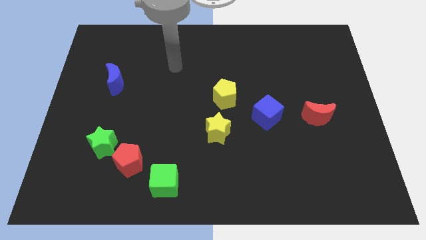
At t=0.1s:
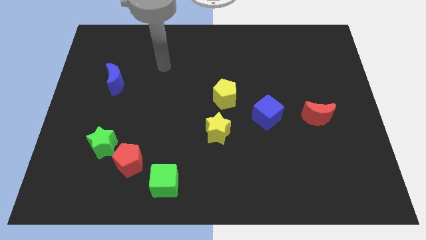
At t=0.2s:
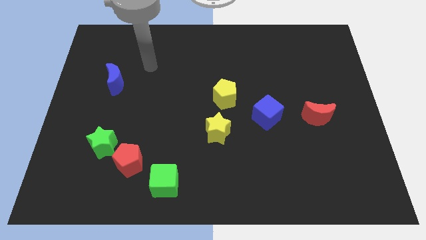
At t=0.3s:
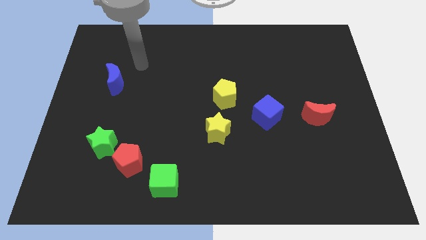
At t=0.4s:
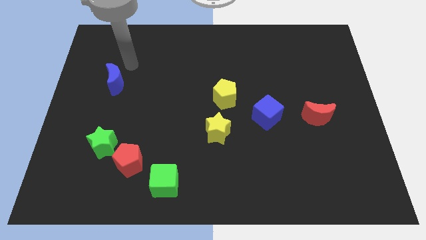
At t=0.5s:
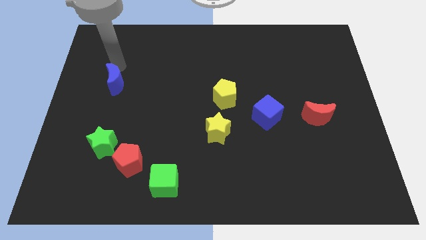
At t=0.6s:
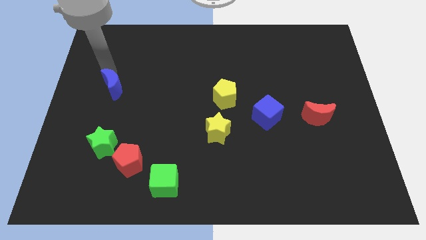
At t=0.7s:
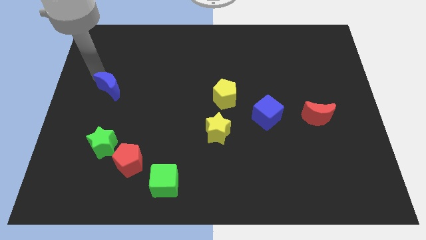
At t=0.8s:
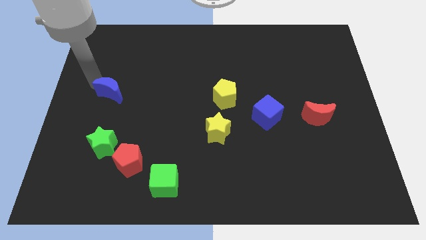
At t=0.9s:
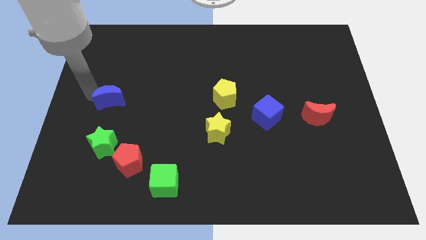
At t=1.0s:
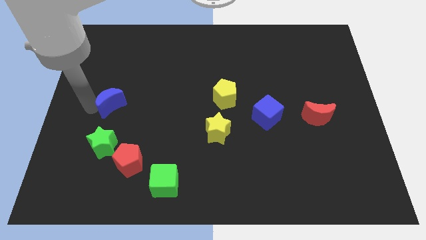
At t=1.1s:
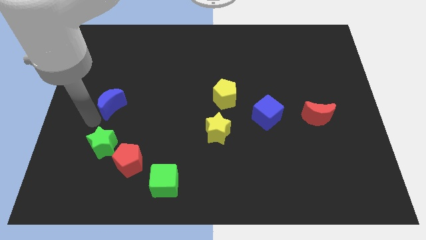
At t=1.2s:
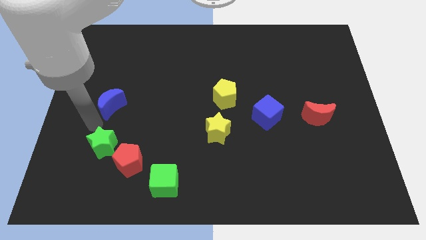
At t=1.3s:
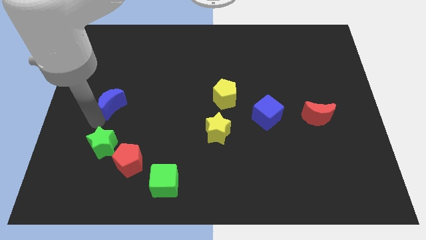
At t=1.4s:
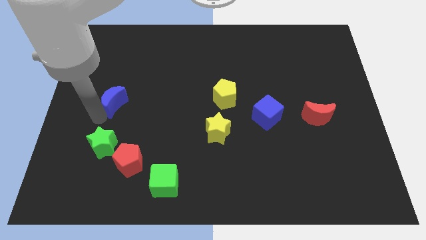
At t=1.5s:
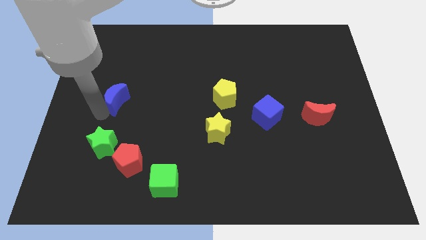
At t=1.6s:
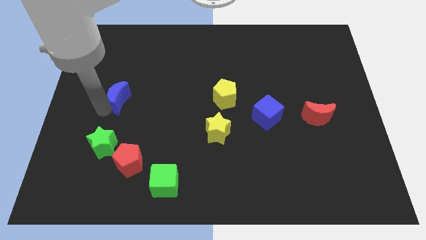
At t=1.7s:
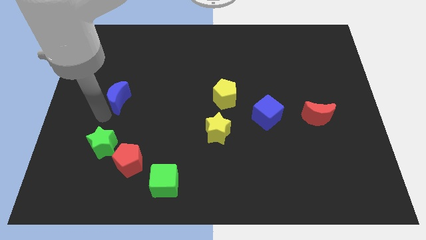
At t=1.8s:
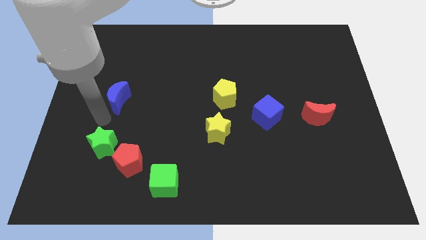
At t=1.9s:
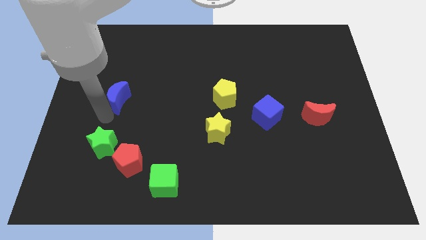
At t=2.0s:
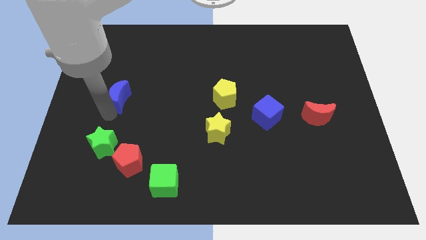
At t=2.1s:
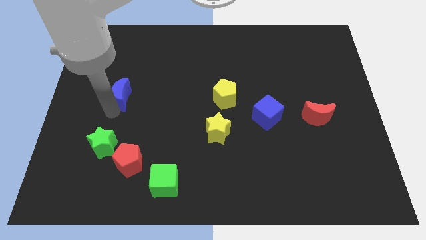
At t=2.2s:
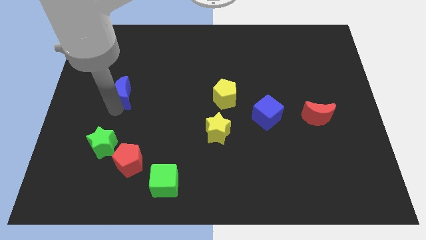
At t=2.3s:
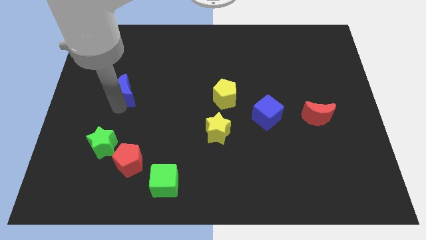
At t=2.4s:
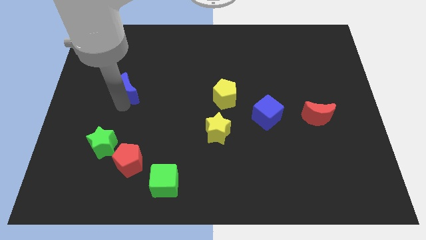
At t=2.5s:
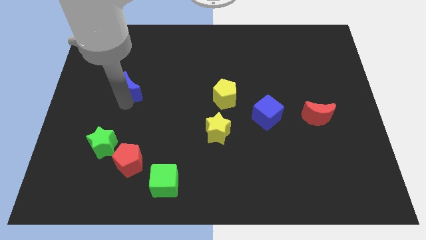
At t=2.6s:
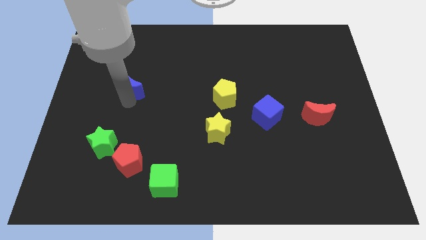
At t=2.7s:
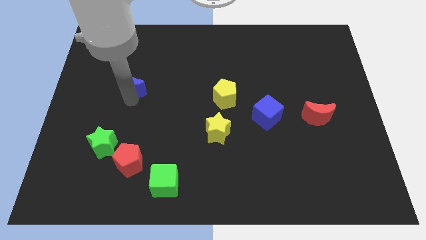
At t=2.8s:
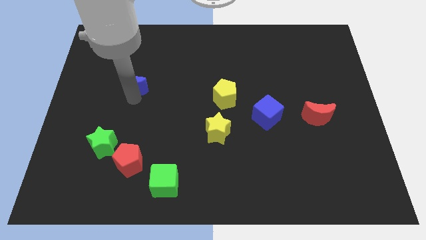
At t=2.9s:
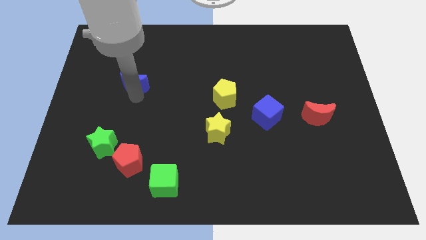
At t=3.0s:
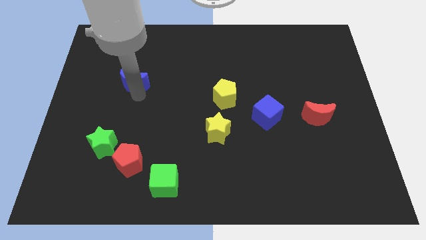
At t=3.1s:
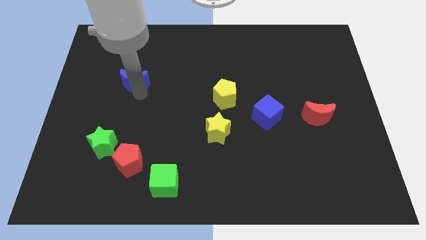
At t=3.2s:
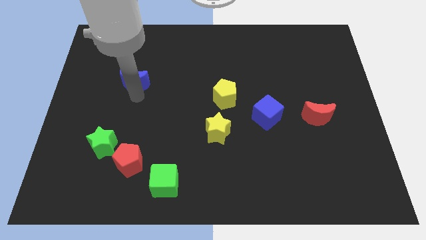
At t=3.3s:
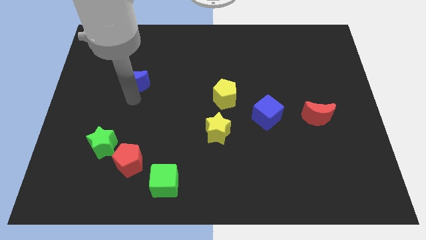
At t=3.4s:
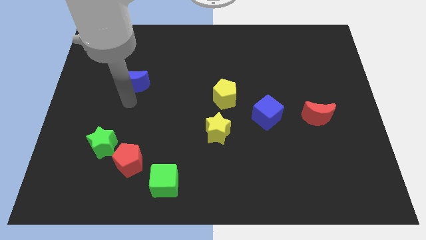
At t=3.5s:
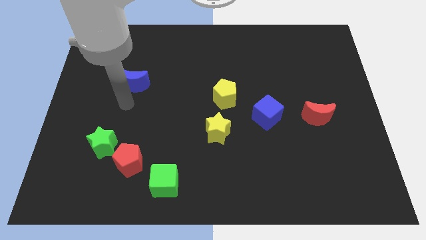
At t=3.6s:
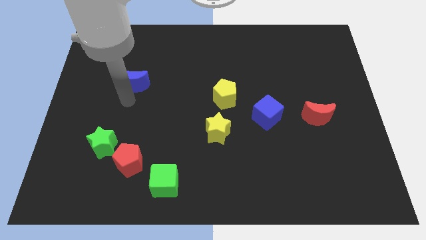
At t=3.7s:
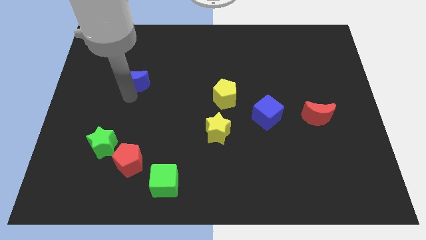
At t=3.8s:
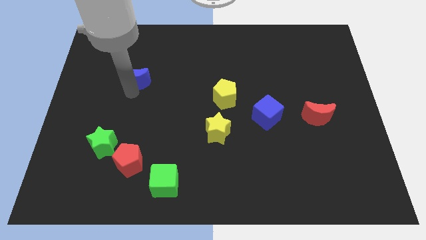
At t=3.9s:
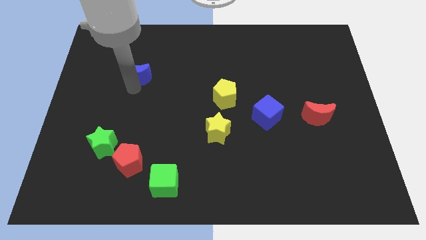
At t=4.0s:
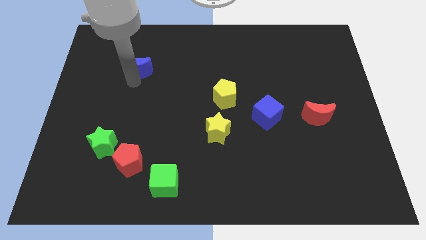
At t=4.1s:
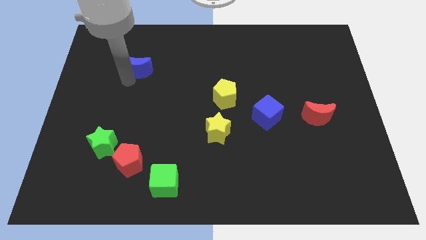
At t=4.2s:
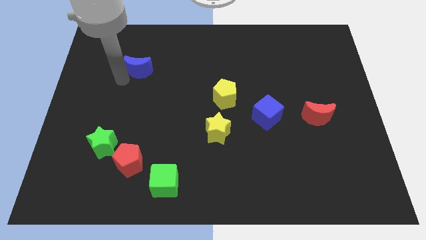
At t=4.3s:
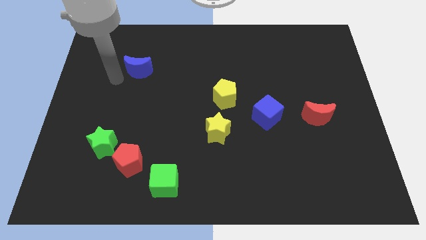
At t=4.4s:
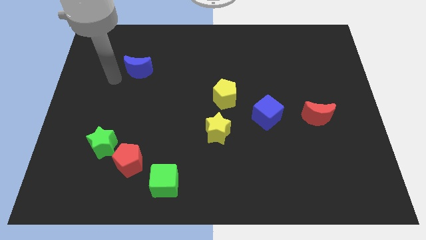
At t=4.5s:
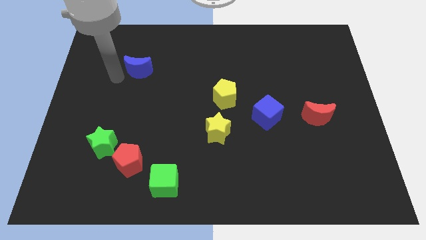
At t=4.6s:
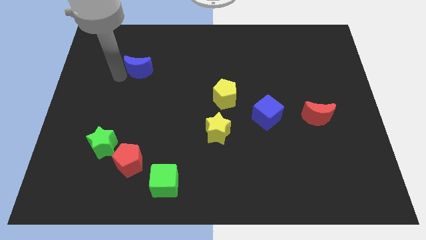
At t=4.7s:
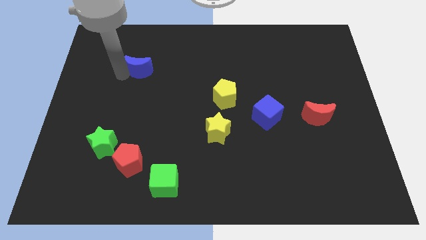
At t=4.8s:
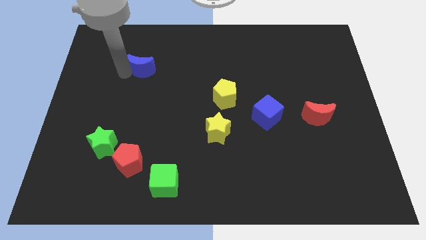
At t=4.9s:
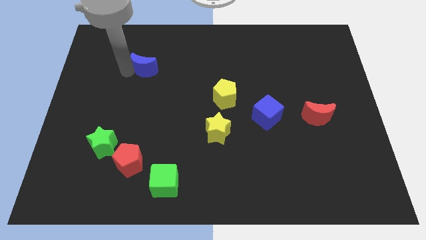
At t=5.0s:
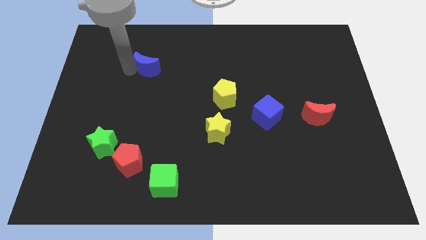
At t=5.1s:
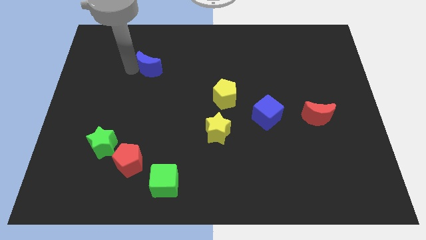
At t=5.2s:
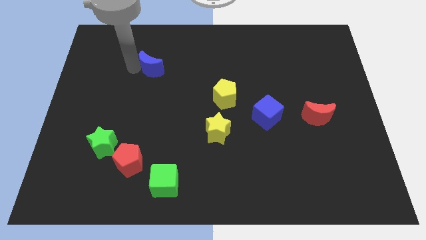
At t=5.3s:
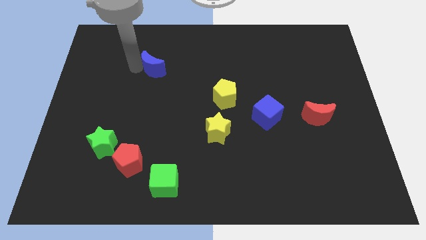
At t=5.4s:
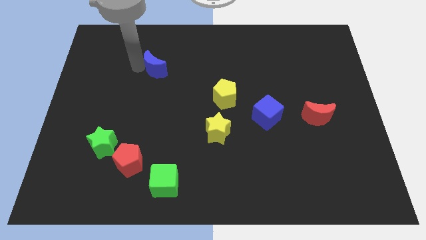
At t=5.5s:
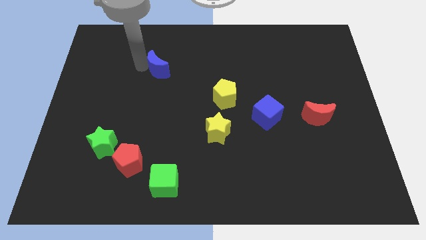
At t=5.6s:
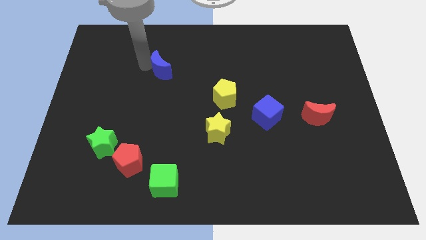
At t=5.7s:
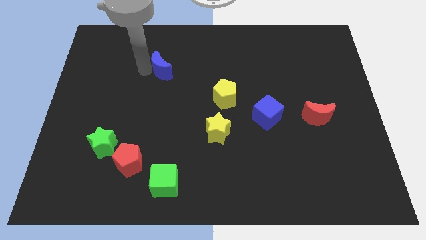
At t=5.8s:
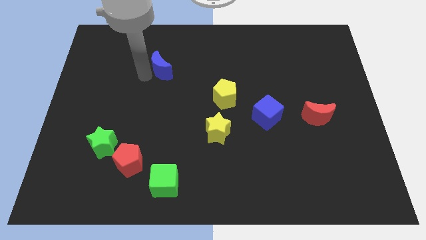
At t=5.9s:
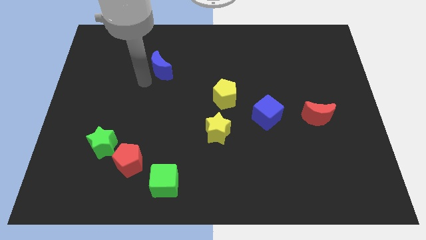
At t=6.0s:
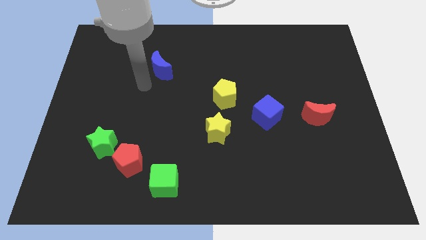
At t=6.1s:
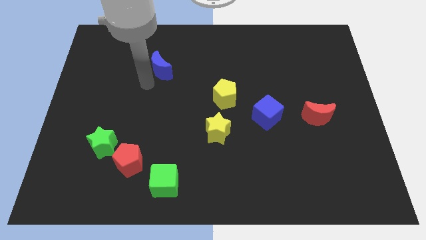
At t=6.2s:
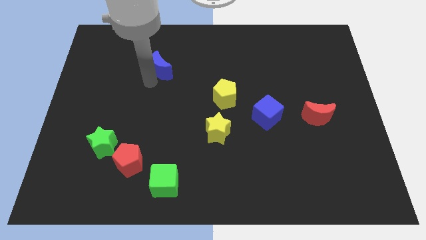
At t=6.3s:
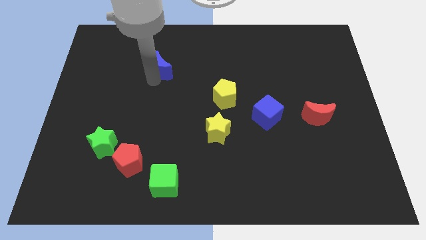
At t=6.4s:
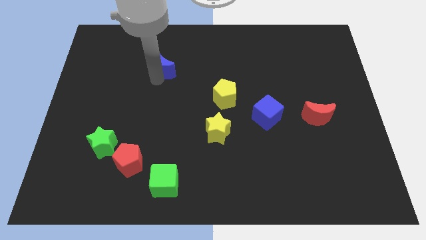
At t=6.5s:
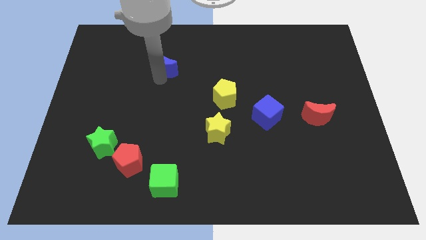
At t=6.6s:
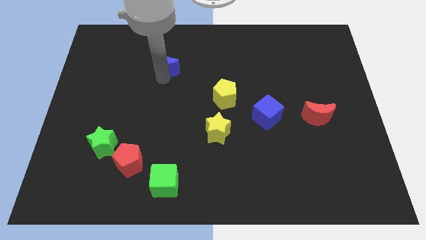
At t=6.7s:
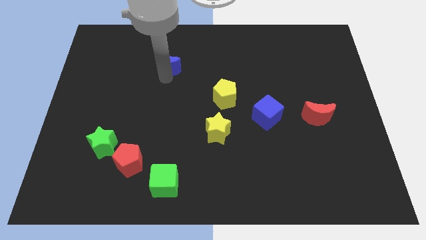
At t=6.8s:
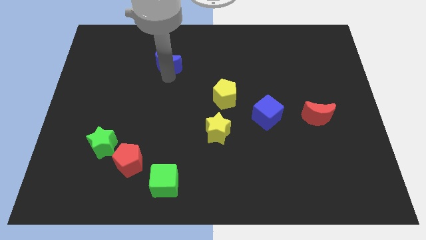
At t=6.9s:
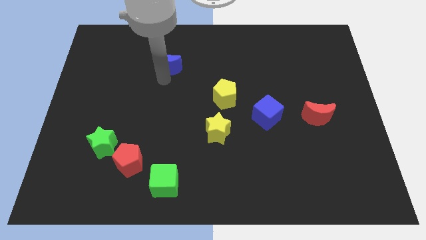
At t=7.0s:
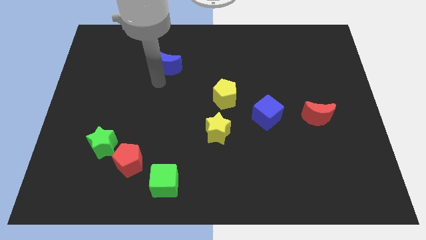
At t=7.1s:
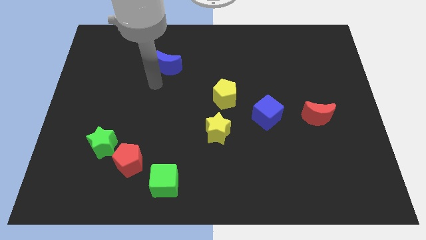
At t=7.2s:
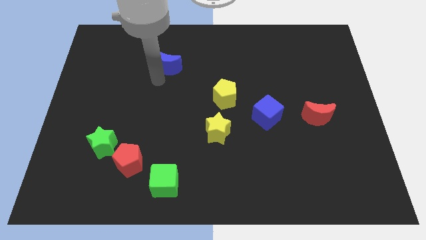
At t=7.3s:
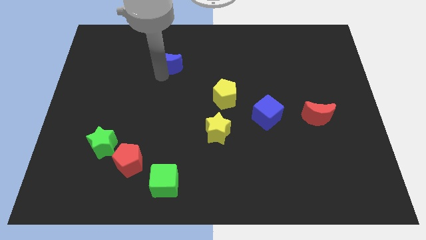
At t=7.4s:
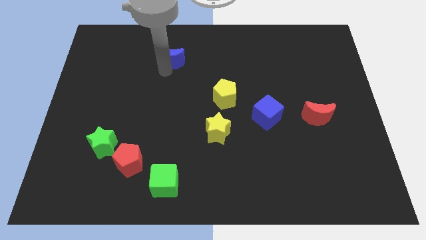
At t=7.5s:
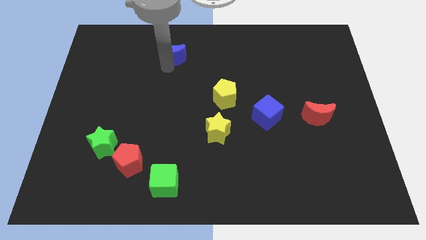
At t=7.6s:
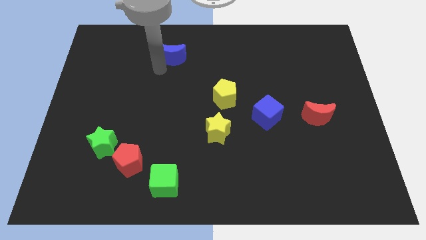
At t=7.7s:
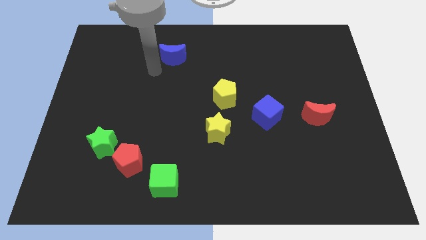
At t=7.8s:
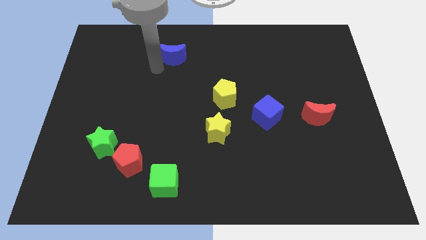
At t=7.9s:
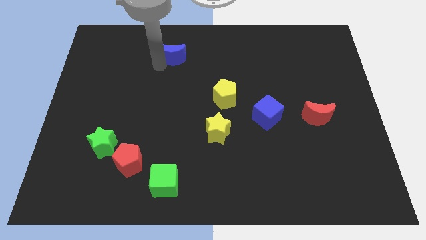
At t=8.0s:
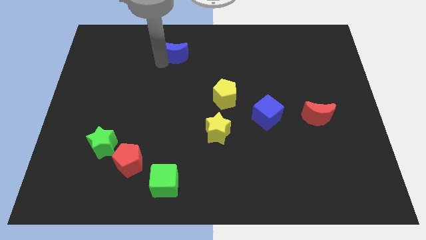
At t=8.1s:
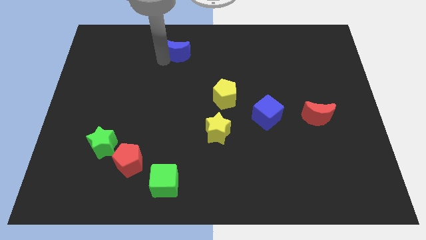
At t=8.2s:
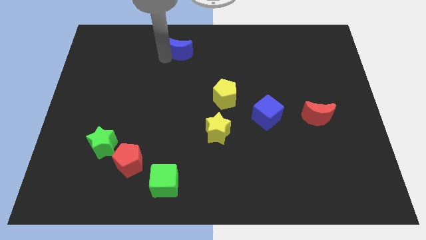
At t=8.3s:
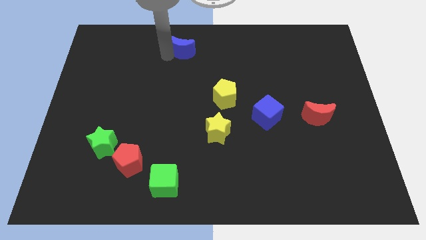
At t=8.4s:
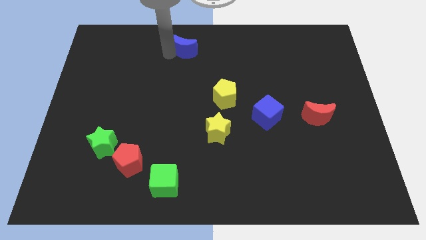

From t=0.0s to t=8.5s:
move the blue moon to the towards your base
